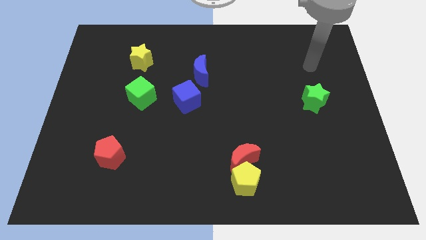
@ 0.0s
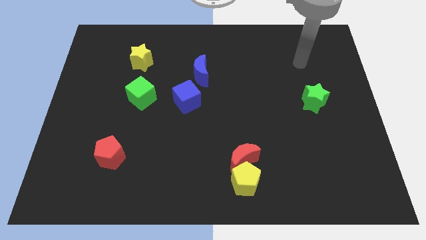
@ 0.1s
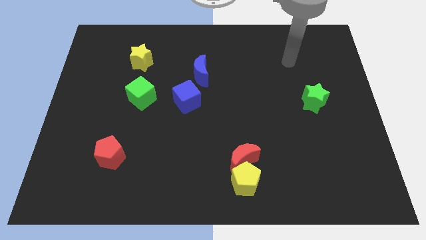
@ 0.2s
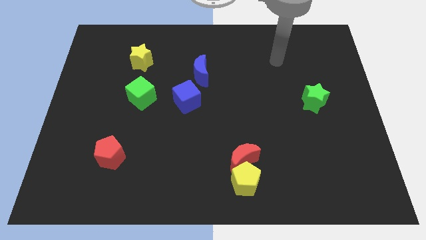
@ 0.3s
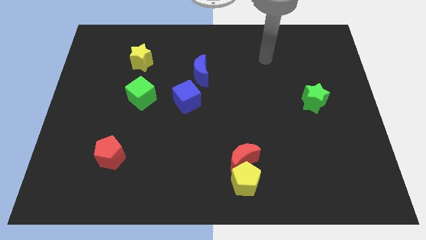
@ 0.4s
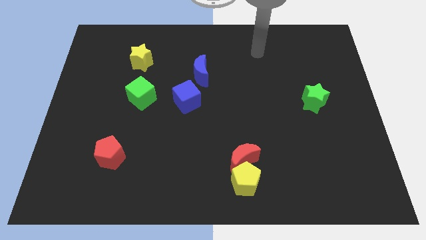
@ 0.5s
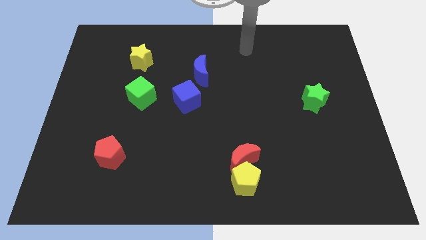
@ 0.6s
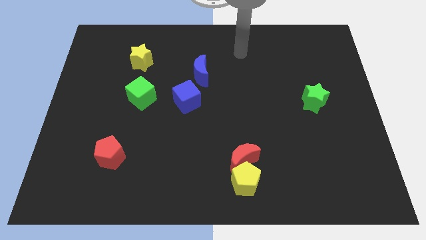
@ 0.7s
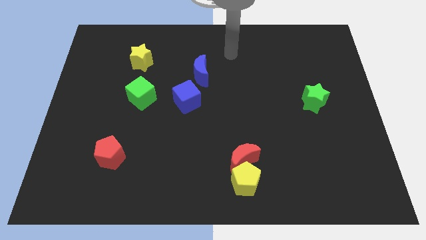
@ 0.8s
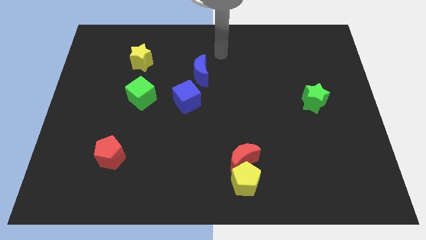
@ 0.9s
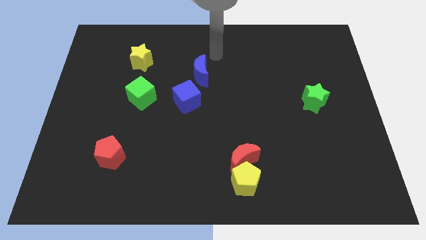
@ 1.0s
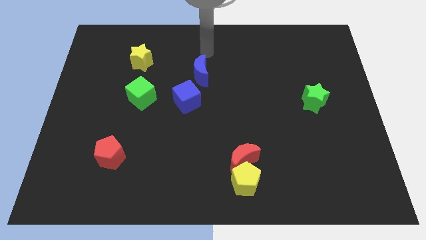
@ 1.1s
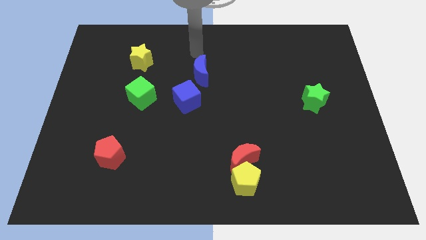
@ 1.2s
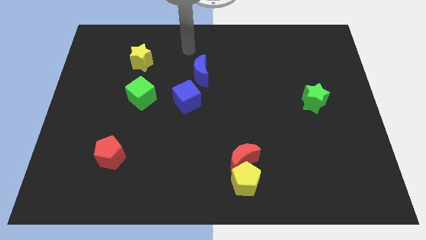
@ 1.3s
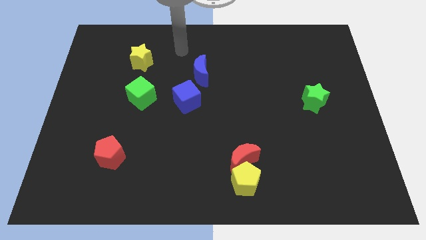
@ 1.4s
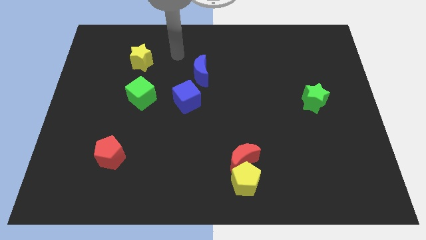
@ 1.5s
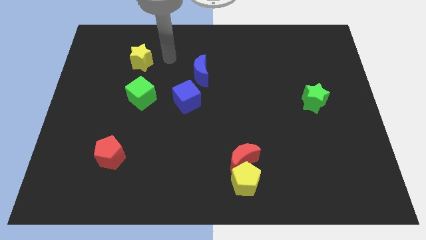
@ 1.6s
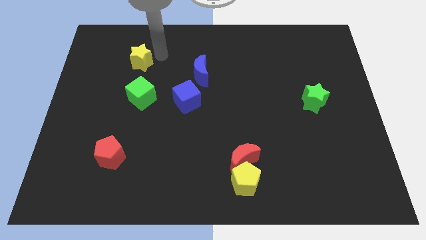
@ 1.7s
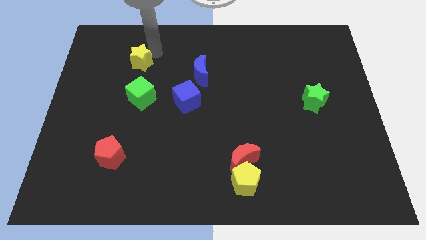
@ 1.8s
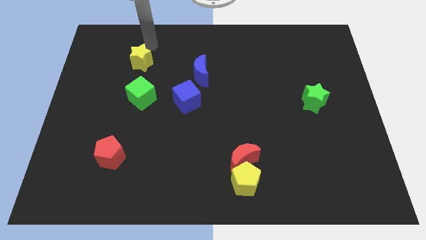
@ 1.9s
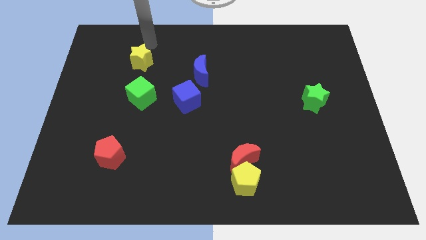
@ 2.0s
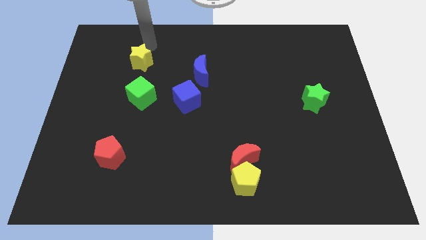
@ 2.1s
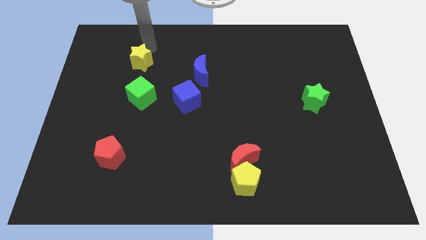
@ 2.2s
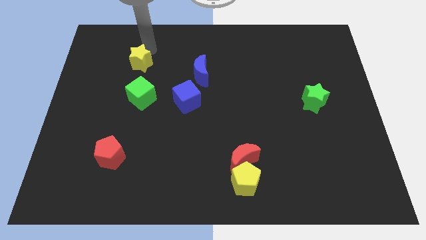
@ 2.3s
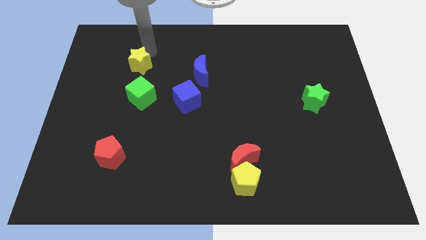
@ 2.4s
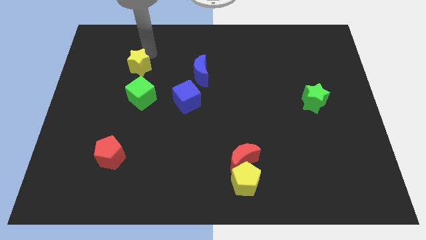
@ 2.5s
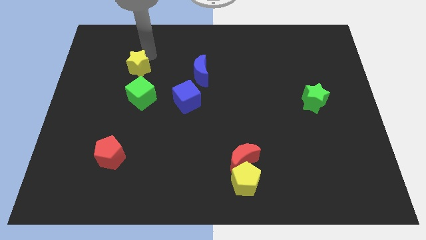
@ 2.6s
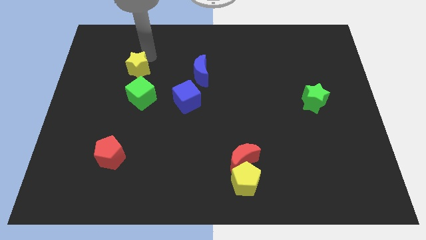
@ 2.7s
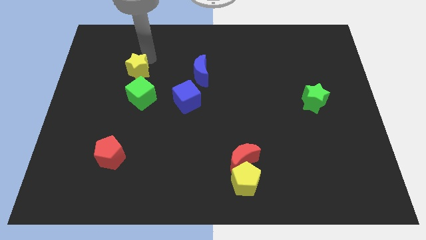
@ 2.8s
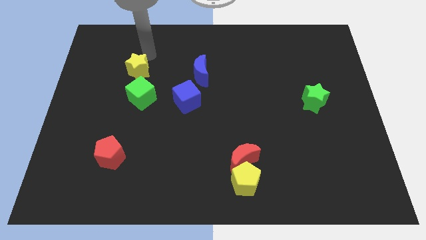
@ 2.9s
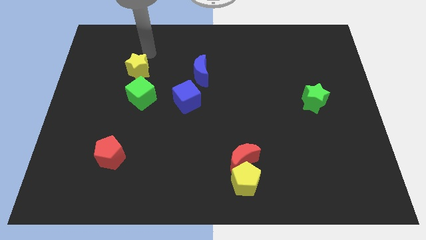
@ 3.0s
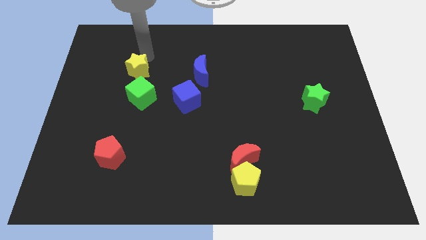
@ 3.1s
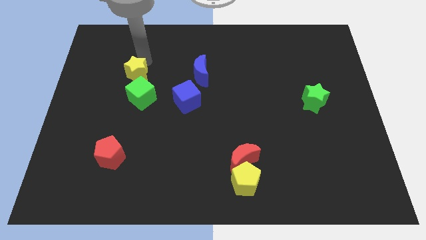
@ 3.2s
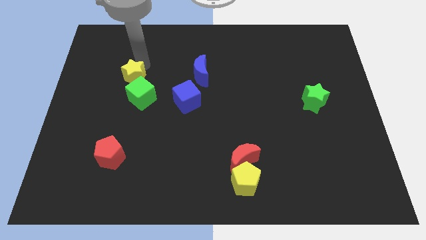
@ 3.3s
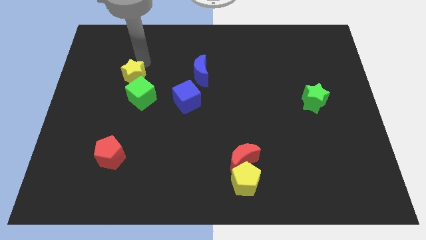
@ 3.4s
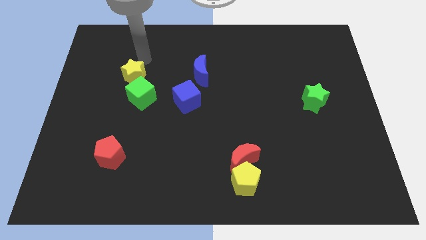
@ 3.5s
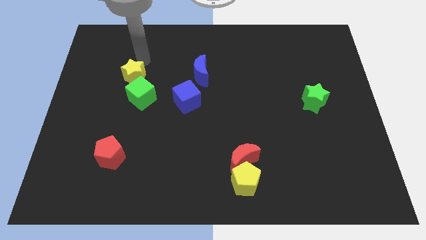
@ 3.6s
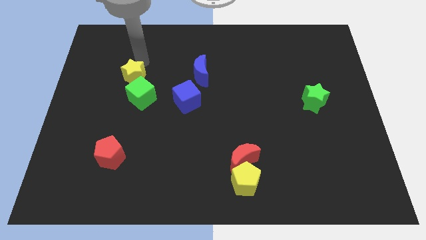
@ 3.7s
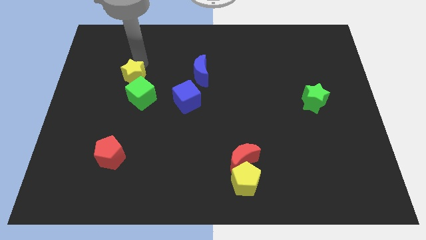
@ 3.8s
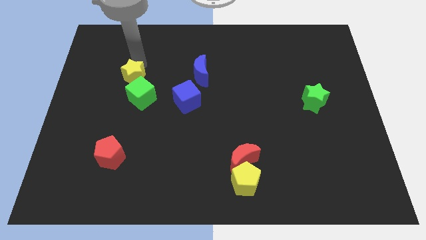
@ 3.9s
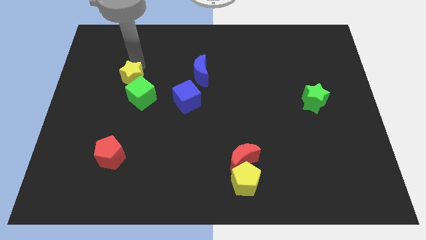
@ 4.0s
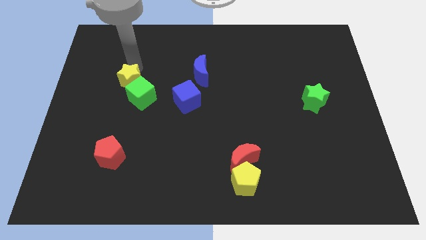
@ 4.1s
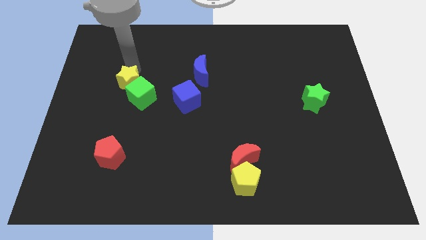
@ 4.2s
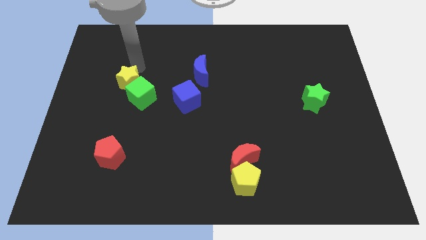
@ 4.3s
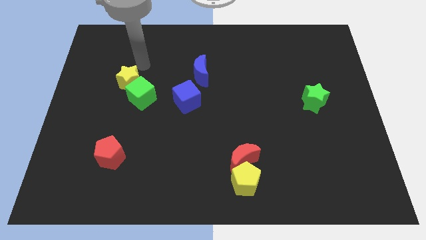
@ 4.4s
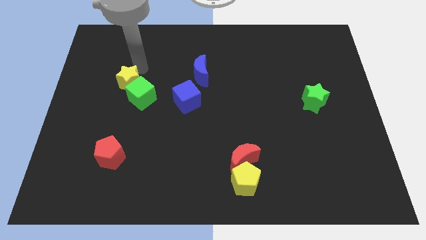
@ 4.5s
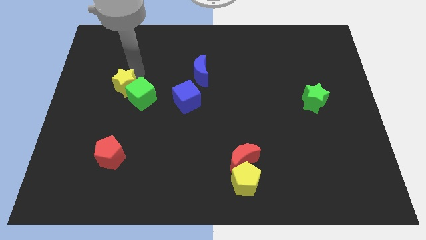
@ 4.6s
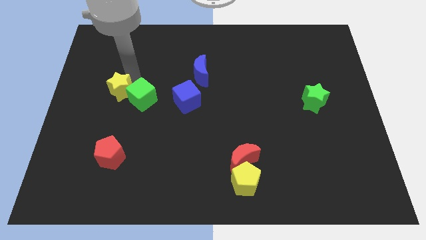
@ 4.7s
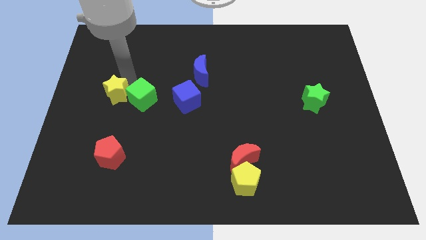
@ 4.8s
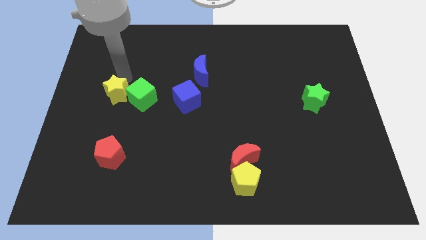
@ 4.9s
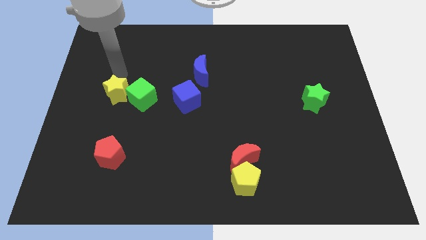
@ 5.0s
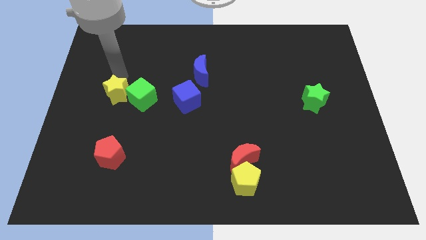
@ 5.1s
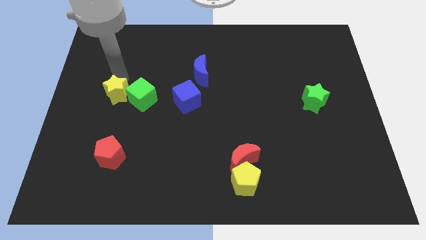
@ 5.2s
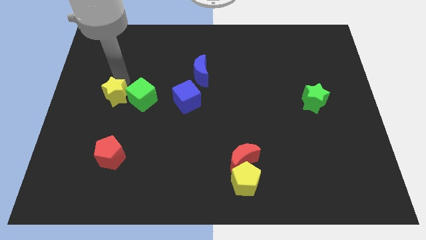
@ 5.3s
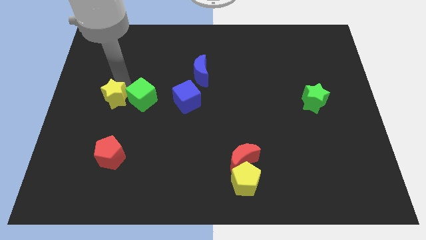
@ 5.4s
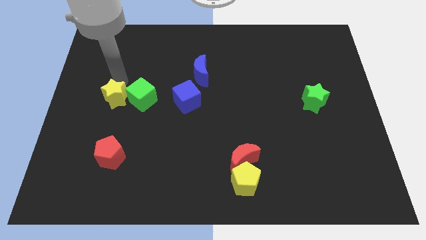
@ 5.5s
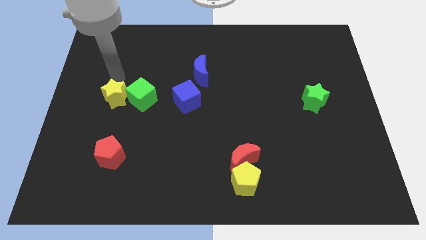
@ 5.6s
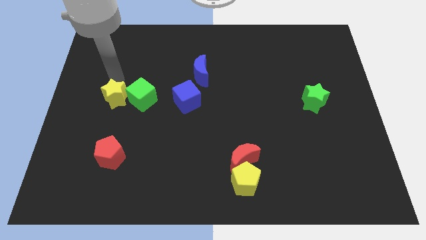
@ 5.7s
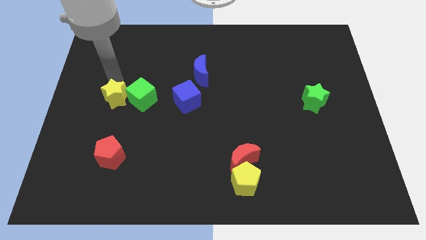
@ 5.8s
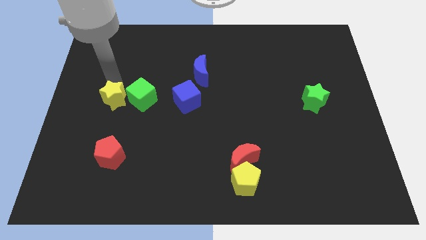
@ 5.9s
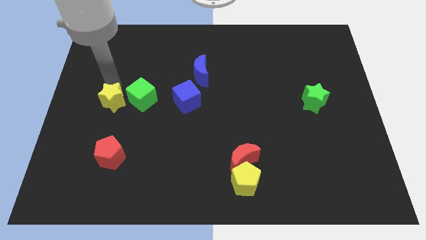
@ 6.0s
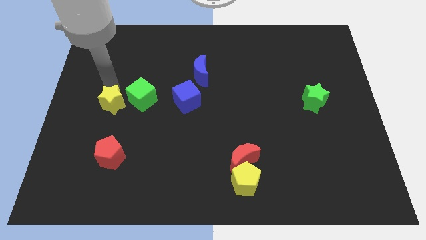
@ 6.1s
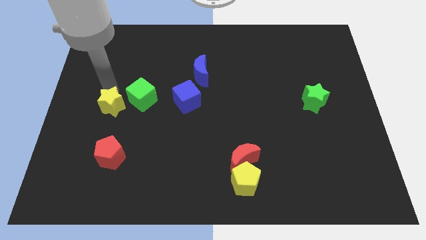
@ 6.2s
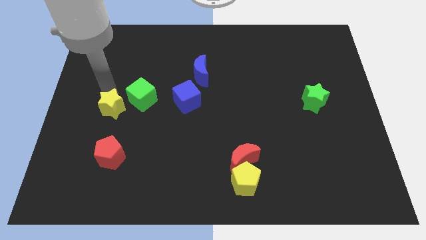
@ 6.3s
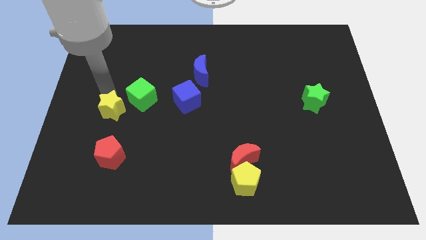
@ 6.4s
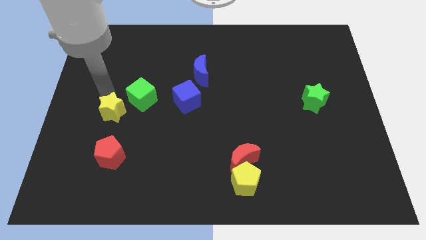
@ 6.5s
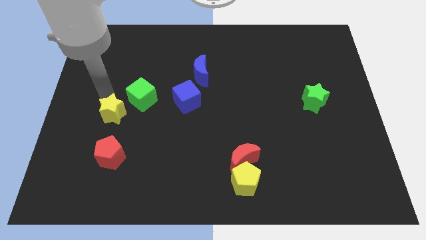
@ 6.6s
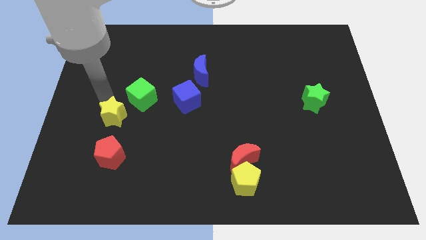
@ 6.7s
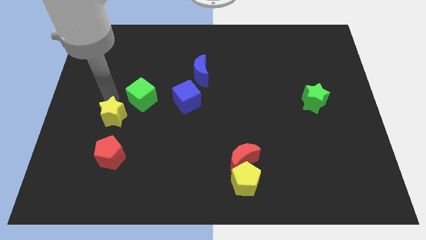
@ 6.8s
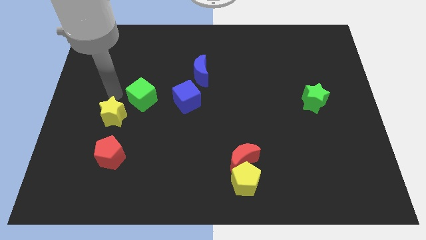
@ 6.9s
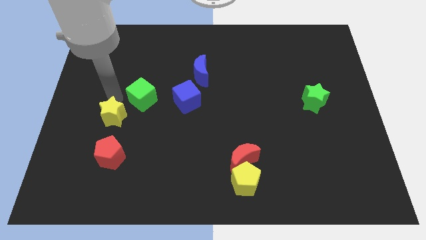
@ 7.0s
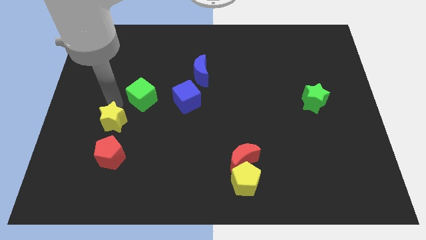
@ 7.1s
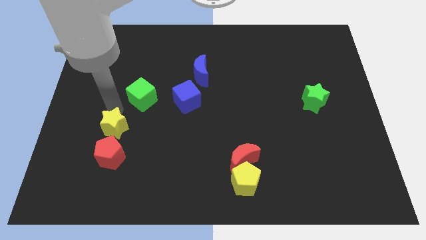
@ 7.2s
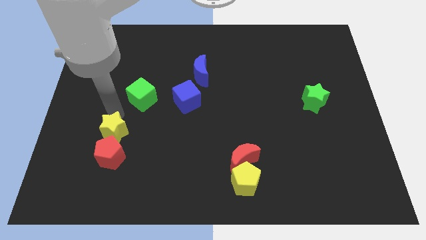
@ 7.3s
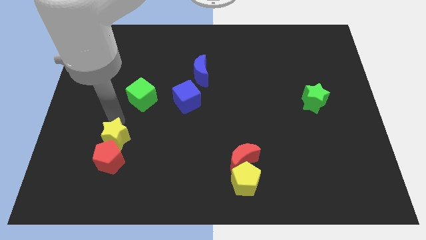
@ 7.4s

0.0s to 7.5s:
slide the yellow star next to the red pentagon
